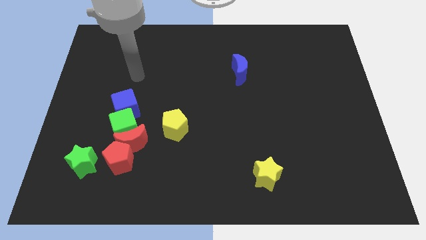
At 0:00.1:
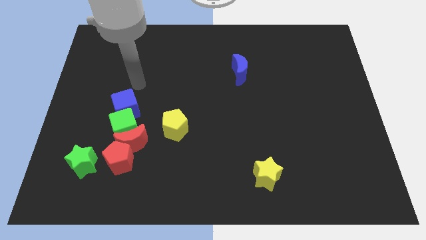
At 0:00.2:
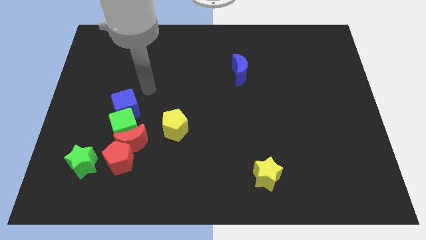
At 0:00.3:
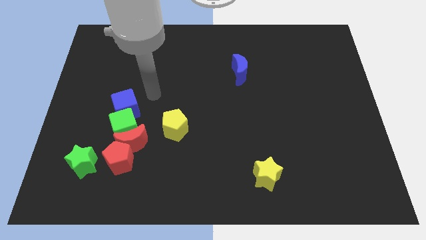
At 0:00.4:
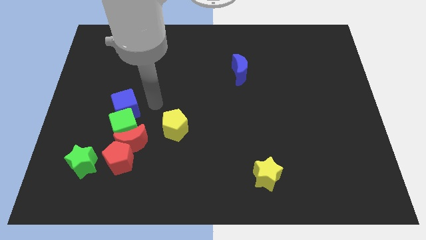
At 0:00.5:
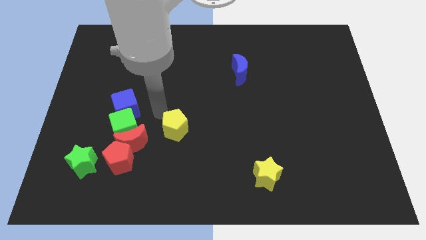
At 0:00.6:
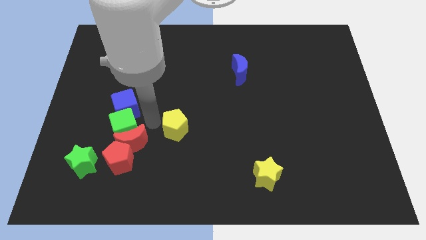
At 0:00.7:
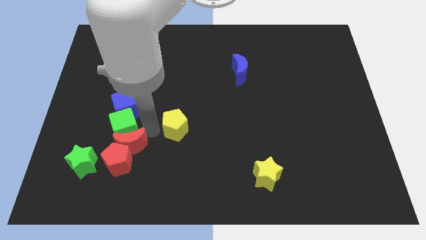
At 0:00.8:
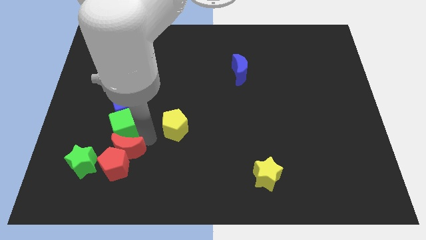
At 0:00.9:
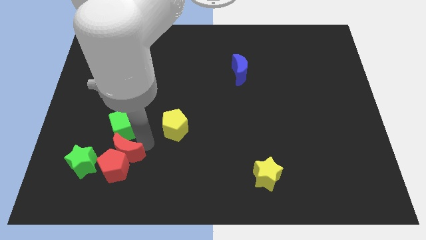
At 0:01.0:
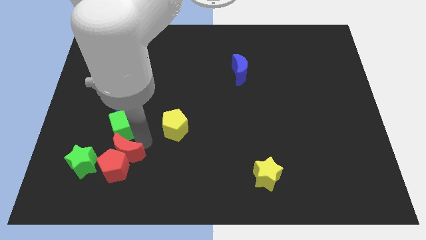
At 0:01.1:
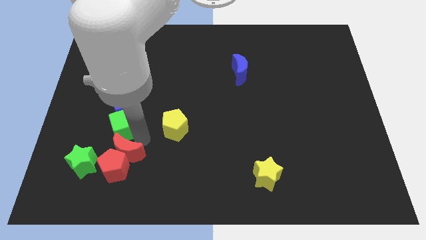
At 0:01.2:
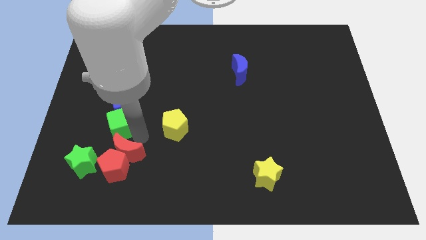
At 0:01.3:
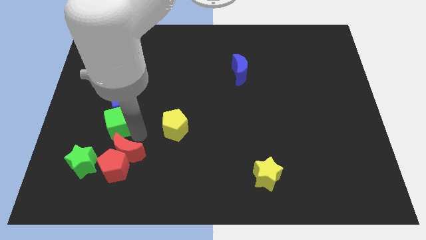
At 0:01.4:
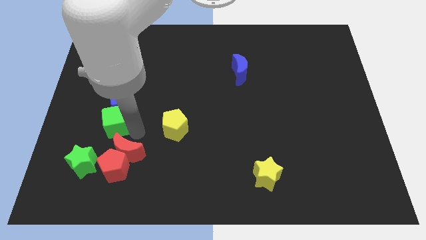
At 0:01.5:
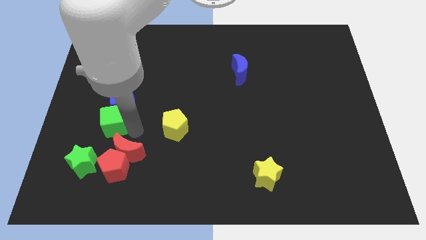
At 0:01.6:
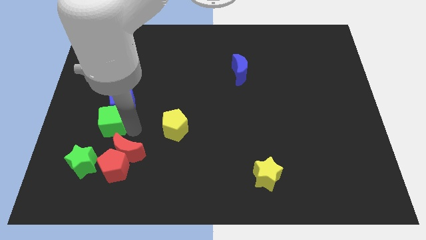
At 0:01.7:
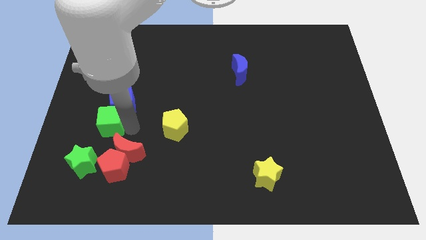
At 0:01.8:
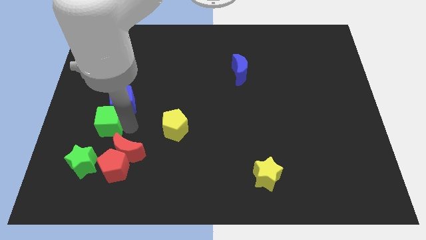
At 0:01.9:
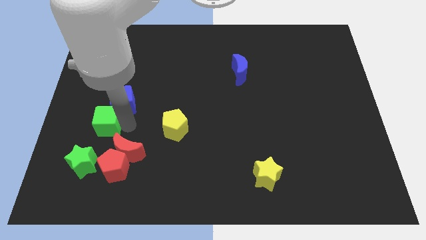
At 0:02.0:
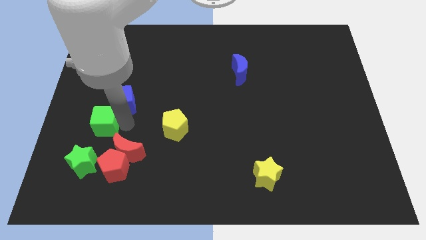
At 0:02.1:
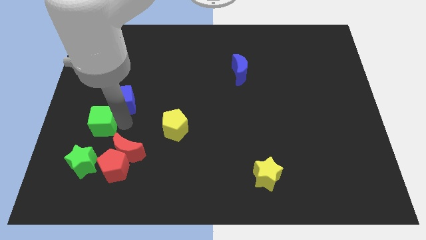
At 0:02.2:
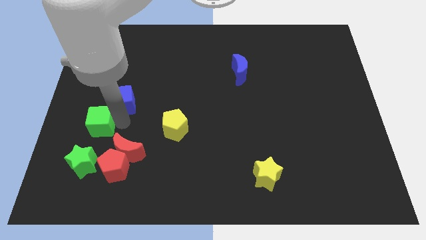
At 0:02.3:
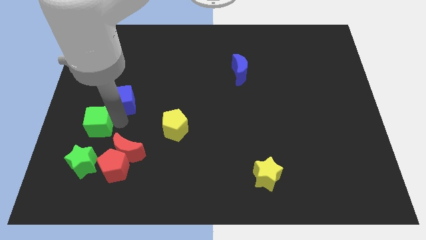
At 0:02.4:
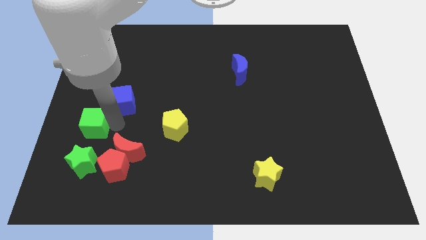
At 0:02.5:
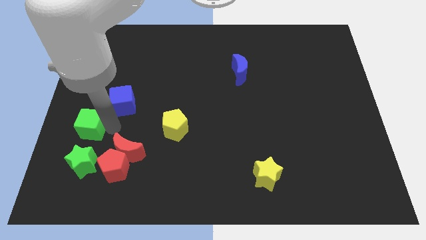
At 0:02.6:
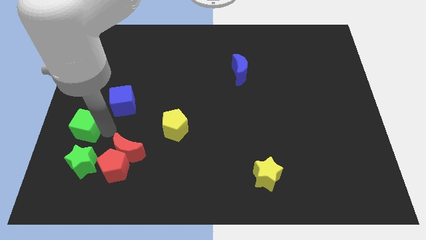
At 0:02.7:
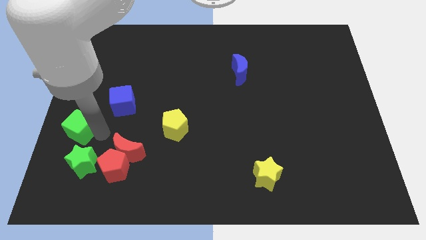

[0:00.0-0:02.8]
pull the green cube apart from the group

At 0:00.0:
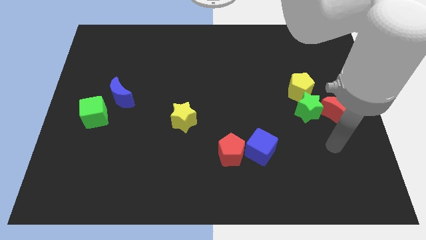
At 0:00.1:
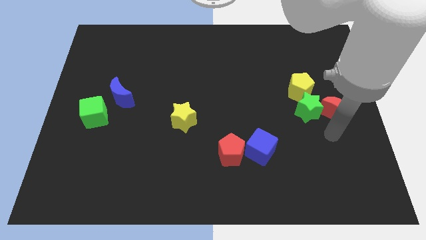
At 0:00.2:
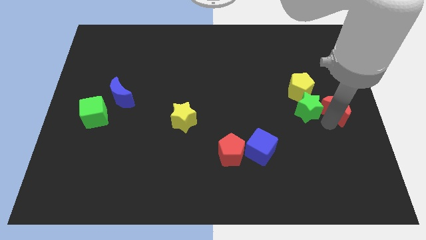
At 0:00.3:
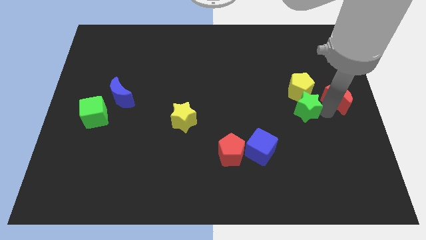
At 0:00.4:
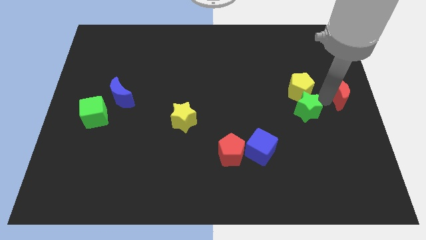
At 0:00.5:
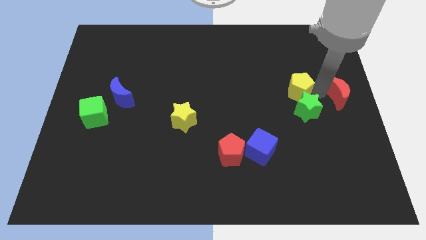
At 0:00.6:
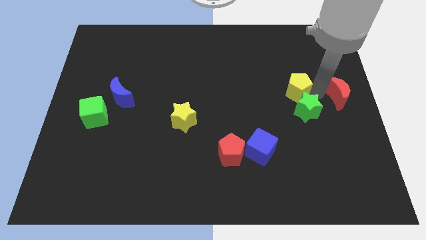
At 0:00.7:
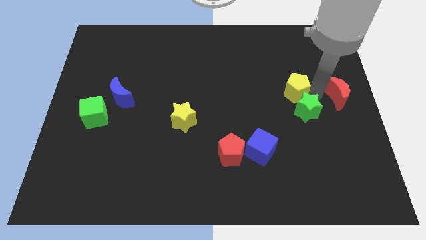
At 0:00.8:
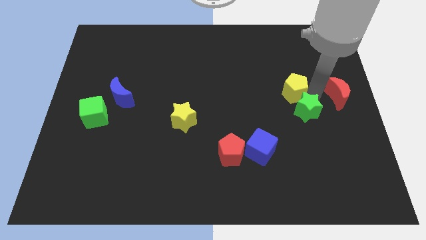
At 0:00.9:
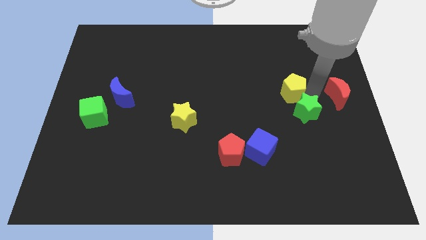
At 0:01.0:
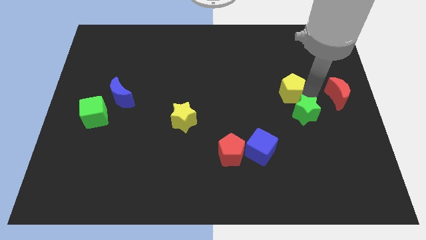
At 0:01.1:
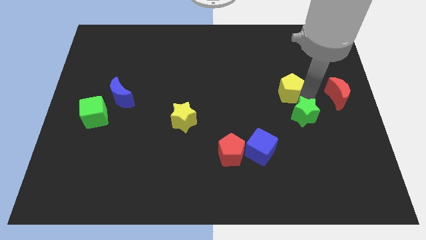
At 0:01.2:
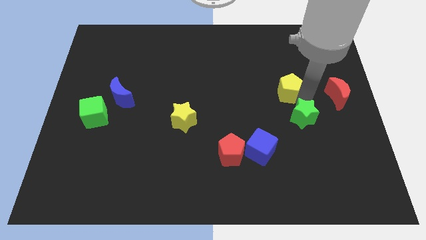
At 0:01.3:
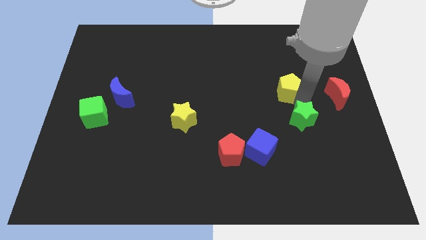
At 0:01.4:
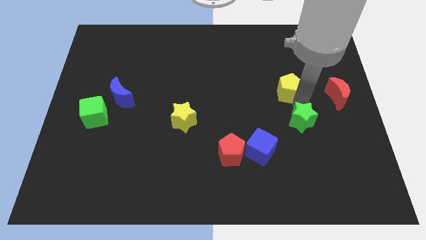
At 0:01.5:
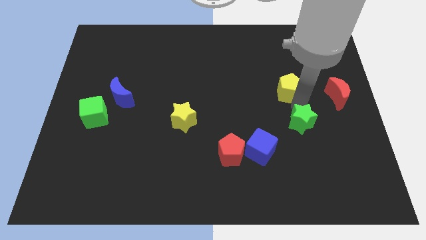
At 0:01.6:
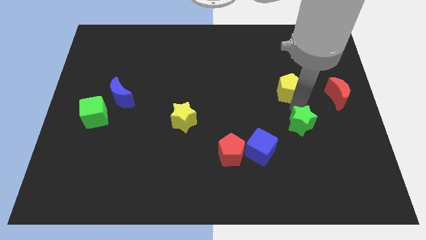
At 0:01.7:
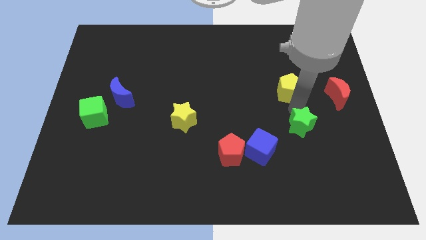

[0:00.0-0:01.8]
pull the green star apart from the red moon and yellow pentagon

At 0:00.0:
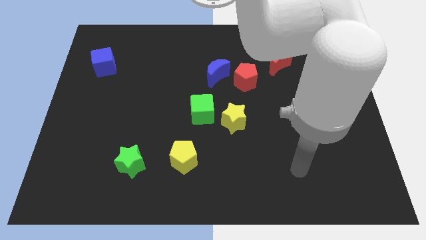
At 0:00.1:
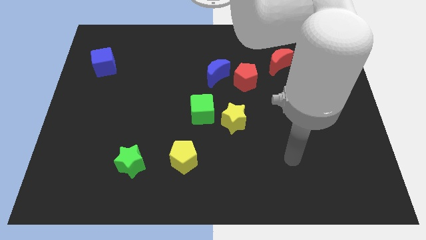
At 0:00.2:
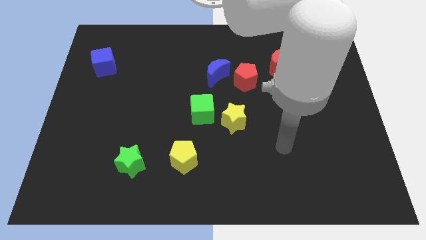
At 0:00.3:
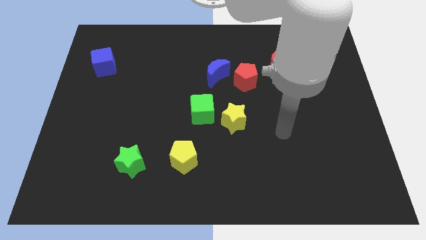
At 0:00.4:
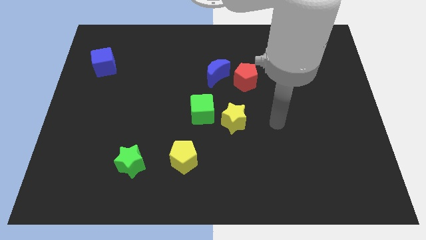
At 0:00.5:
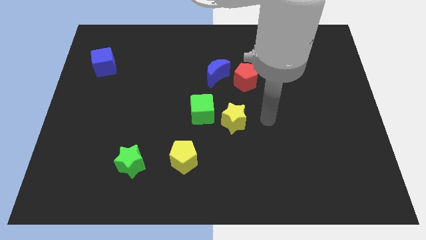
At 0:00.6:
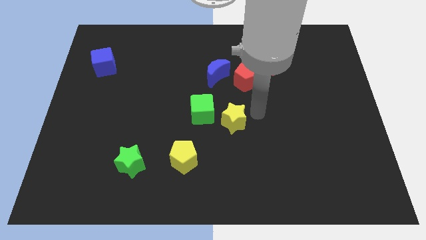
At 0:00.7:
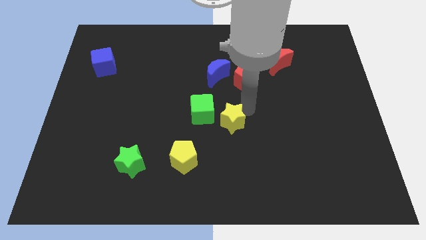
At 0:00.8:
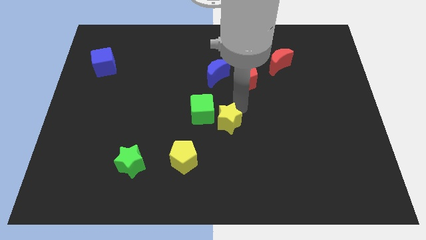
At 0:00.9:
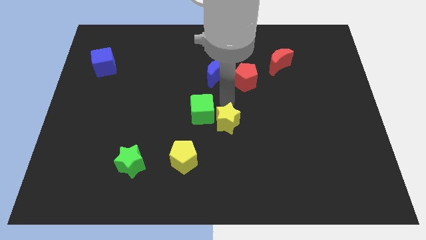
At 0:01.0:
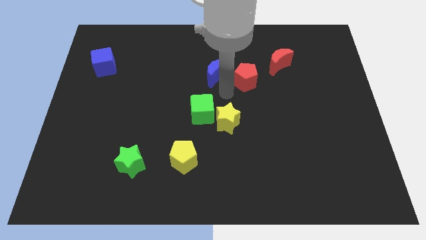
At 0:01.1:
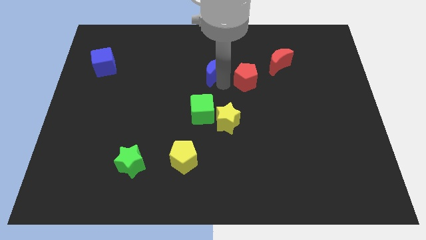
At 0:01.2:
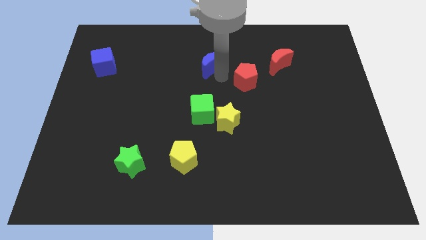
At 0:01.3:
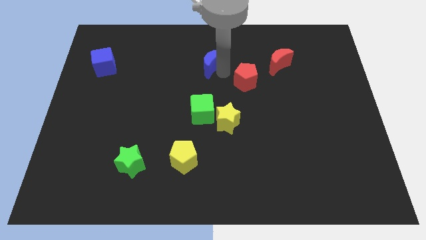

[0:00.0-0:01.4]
pull the red pentagon apart from the blue moon

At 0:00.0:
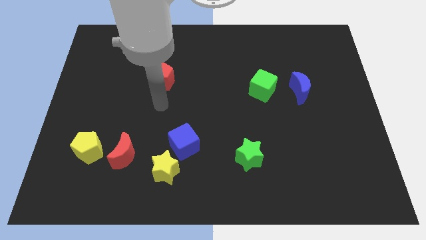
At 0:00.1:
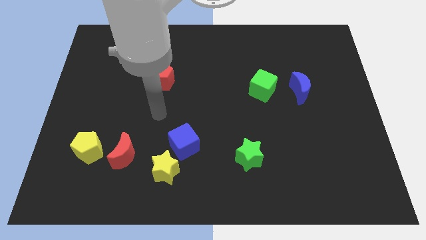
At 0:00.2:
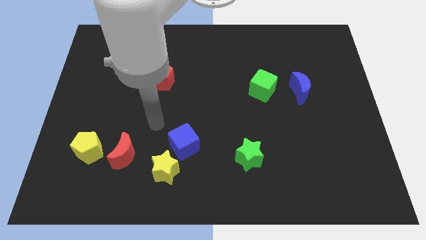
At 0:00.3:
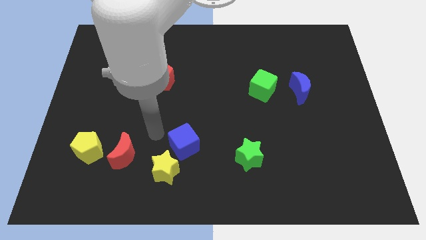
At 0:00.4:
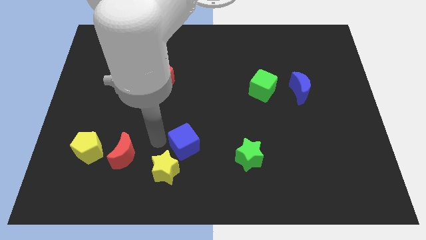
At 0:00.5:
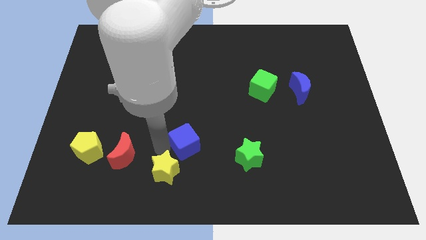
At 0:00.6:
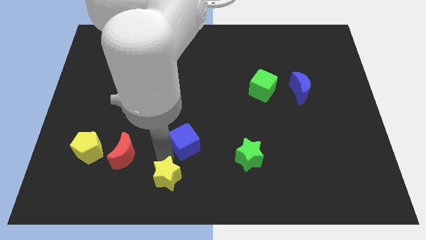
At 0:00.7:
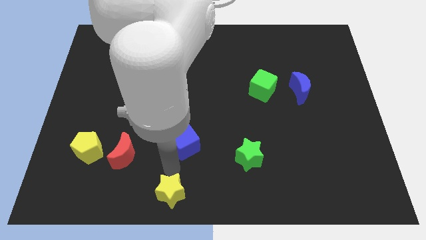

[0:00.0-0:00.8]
pull the blue cube apart from the yellow star

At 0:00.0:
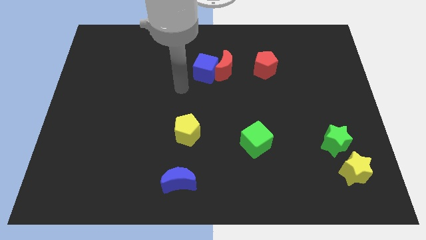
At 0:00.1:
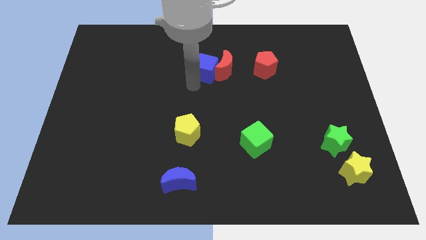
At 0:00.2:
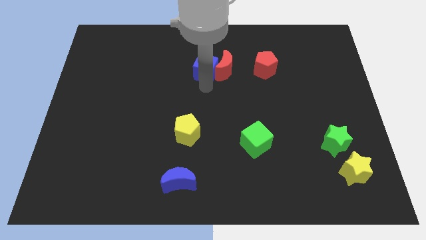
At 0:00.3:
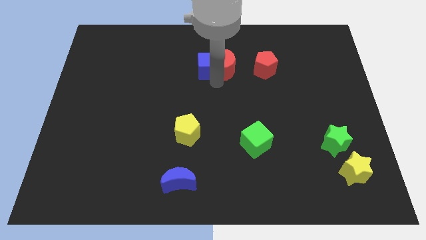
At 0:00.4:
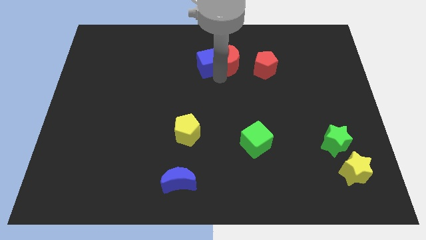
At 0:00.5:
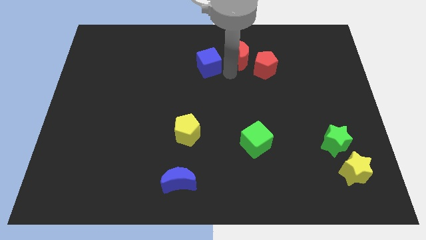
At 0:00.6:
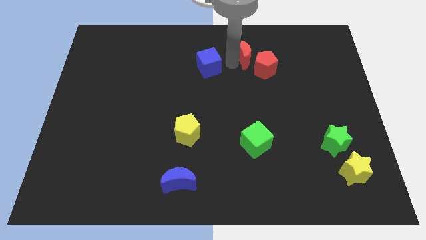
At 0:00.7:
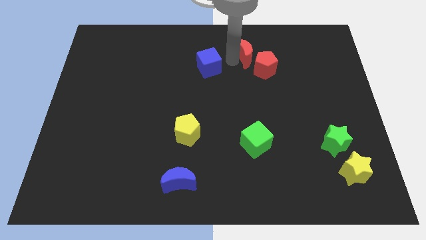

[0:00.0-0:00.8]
move the blue cube away from the red moon

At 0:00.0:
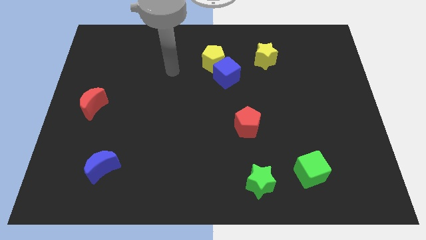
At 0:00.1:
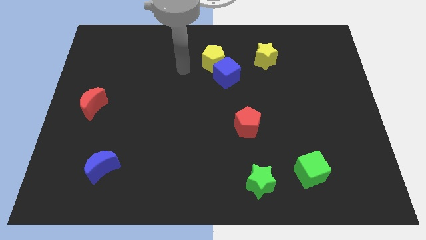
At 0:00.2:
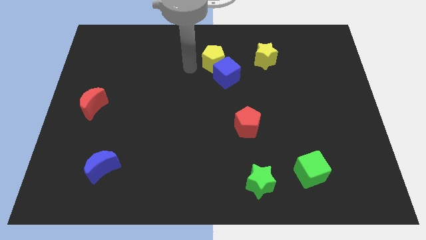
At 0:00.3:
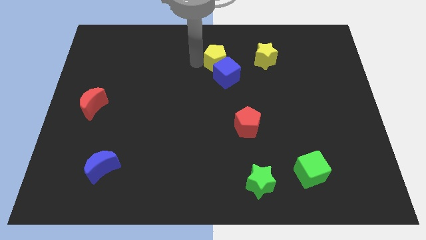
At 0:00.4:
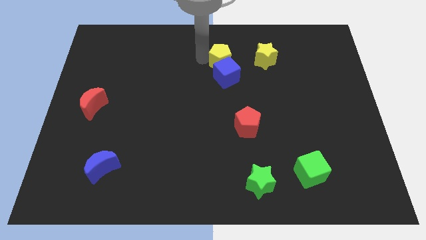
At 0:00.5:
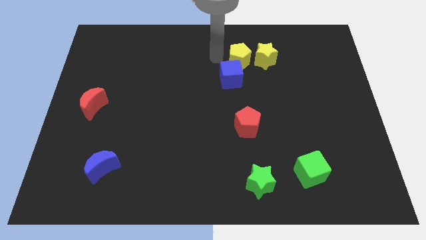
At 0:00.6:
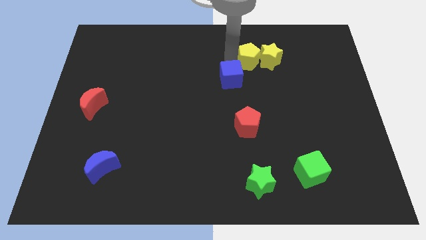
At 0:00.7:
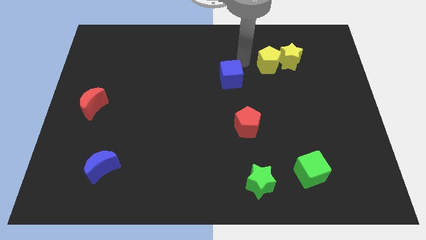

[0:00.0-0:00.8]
move the blue cube away from the yellow pentagon

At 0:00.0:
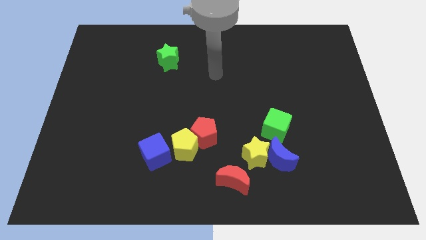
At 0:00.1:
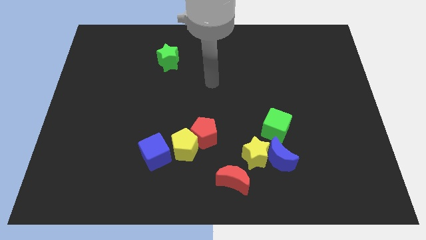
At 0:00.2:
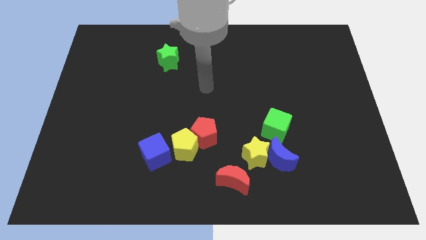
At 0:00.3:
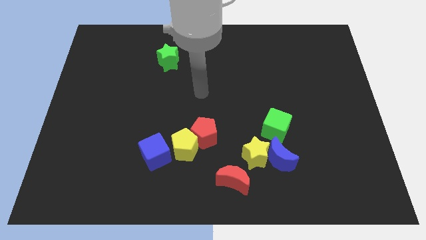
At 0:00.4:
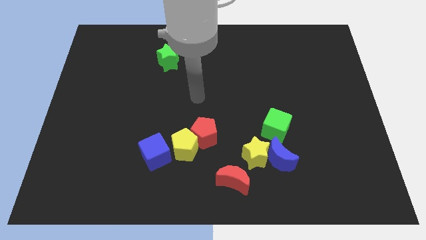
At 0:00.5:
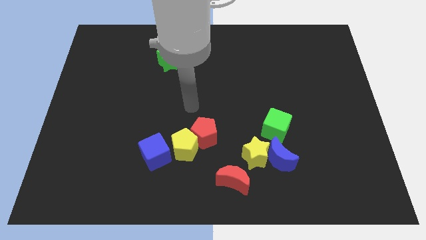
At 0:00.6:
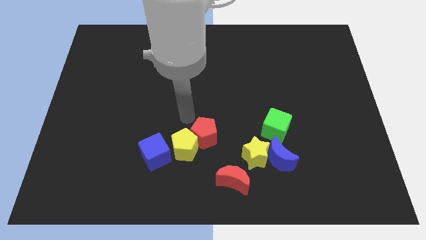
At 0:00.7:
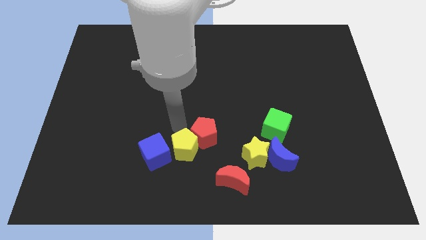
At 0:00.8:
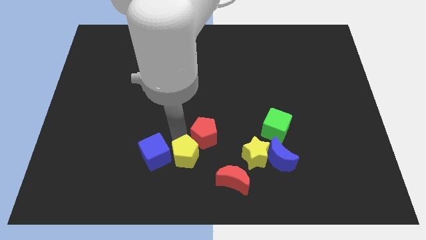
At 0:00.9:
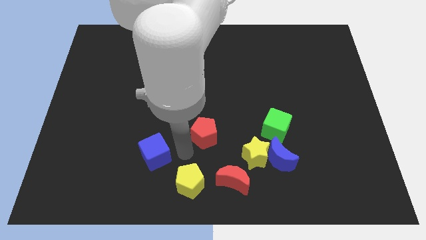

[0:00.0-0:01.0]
pull the red pentagon apart from the yellow pentagon

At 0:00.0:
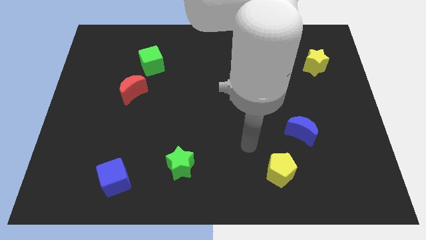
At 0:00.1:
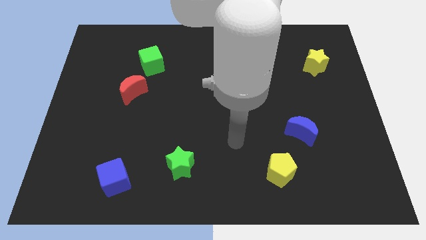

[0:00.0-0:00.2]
separate the red moon from the green cube
